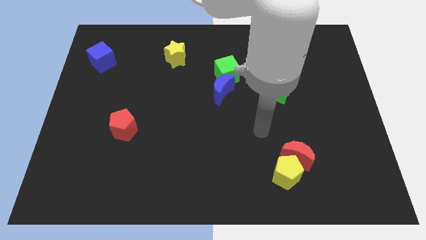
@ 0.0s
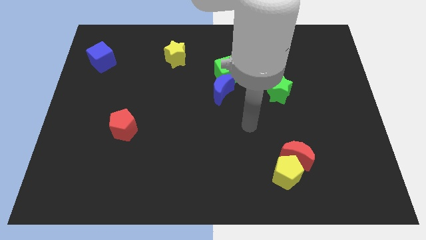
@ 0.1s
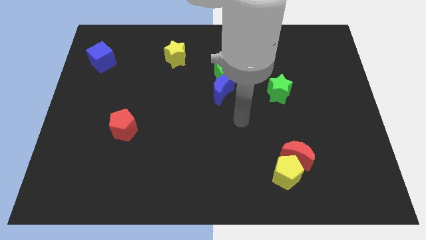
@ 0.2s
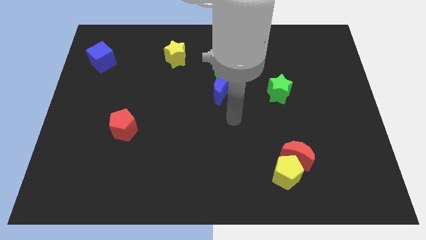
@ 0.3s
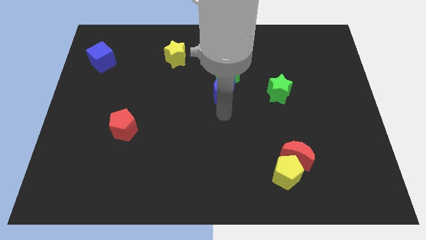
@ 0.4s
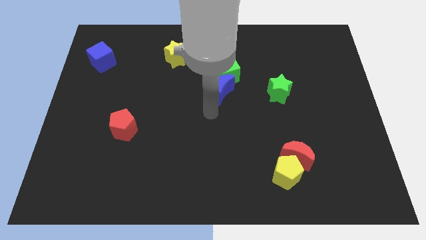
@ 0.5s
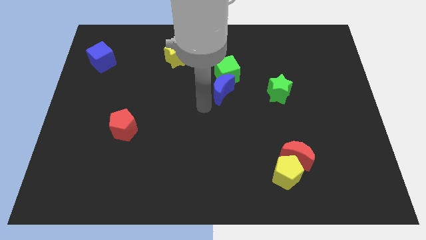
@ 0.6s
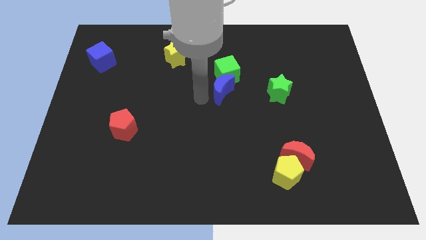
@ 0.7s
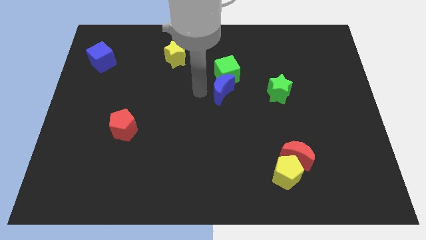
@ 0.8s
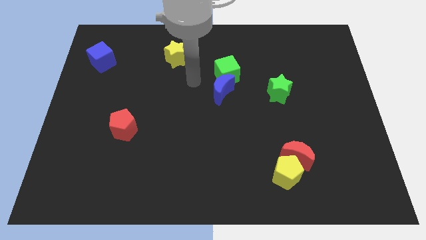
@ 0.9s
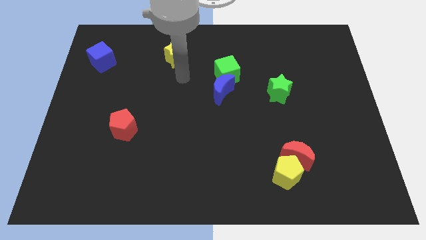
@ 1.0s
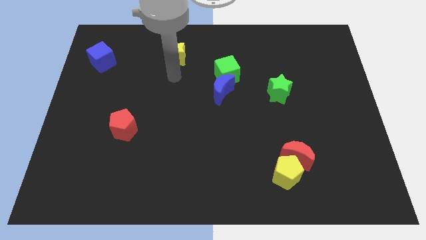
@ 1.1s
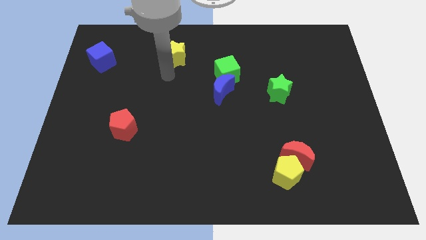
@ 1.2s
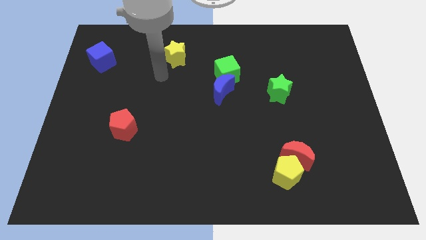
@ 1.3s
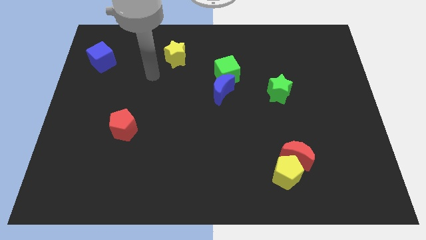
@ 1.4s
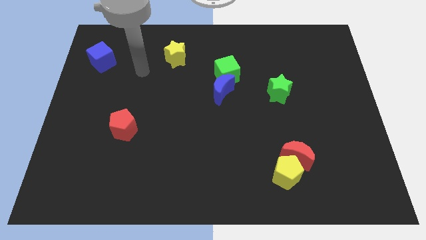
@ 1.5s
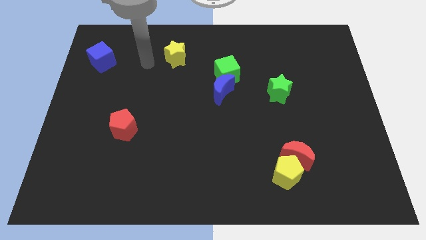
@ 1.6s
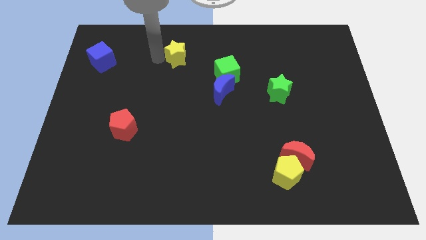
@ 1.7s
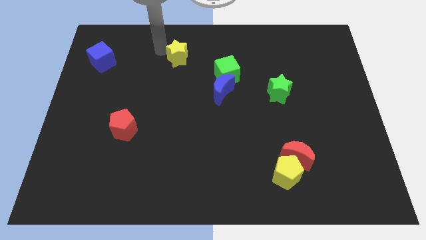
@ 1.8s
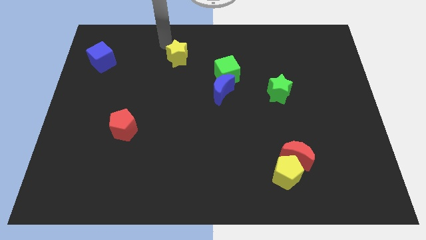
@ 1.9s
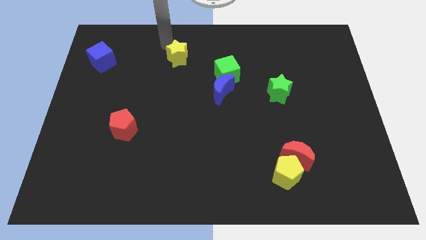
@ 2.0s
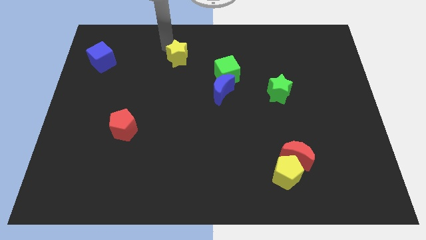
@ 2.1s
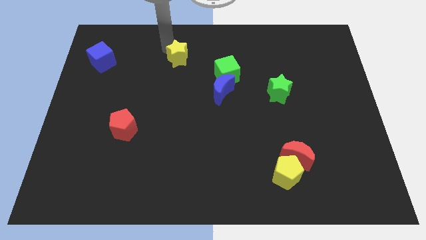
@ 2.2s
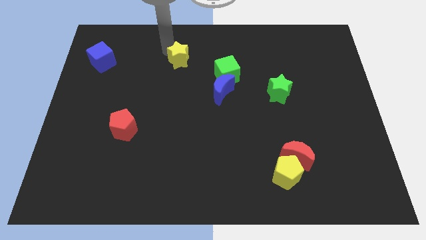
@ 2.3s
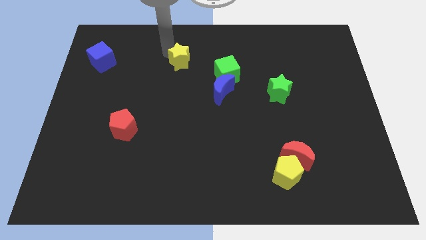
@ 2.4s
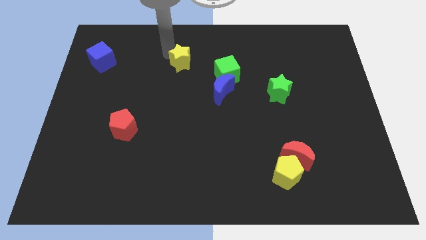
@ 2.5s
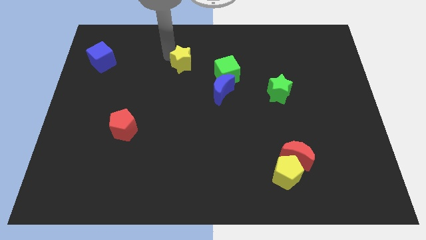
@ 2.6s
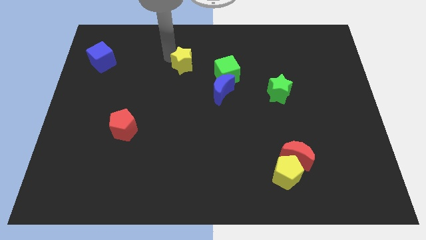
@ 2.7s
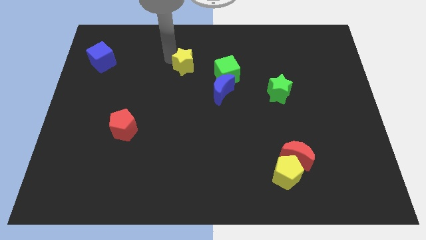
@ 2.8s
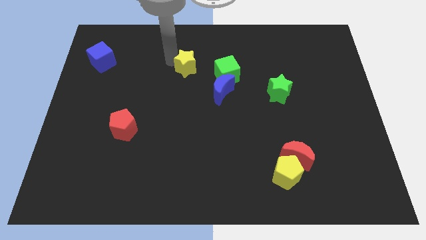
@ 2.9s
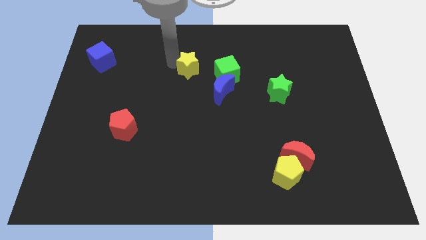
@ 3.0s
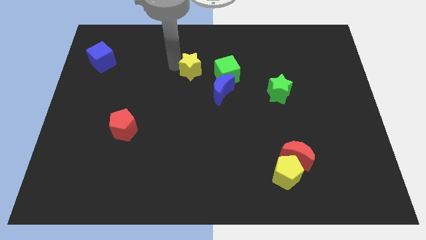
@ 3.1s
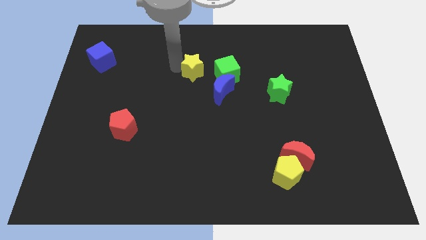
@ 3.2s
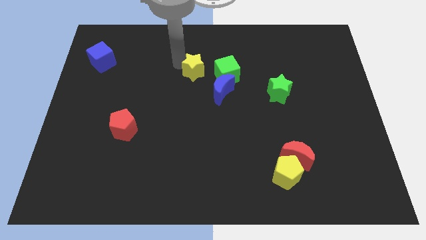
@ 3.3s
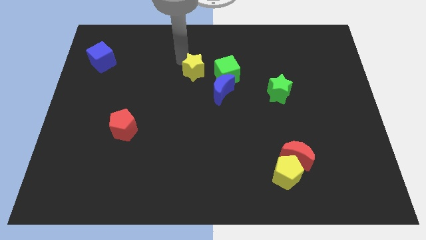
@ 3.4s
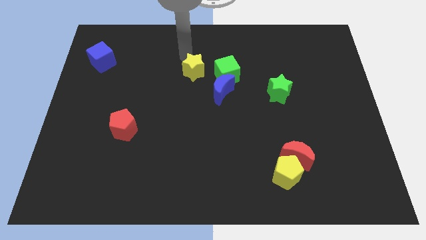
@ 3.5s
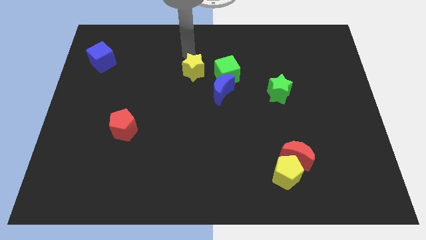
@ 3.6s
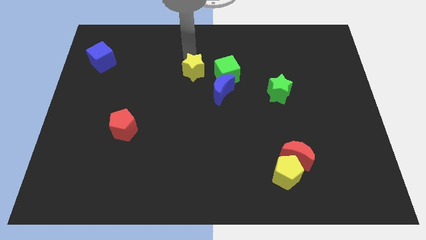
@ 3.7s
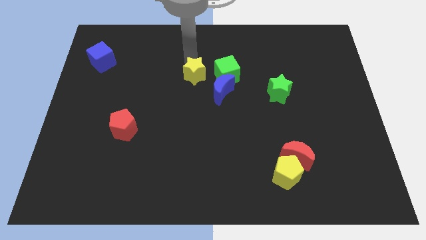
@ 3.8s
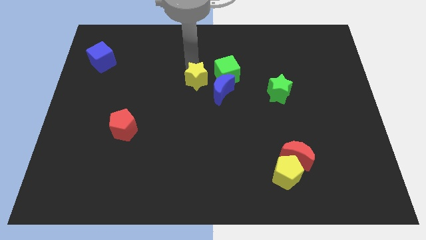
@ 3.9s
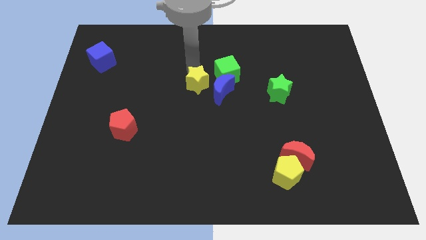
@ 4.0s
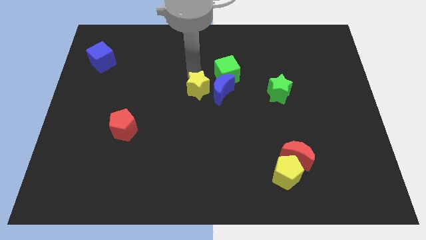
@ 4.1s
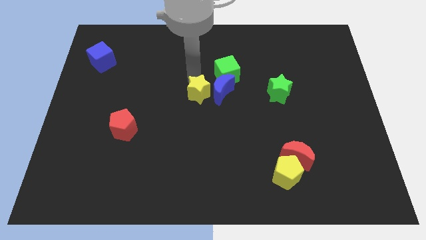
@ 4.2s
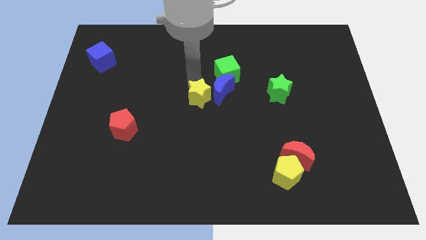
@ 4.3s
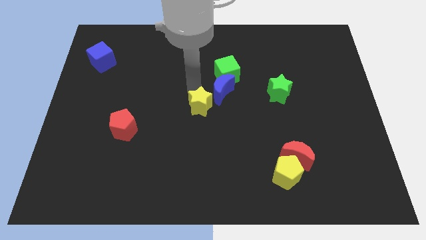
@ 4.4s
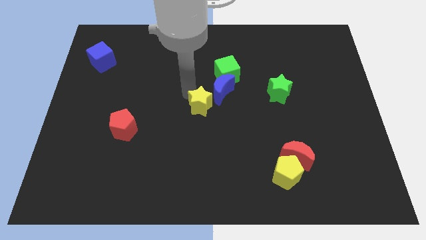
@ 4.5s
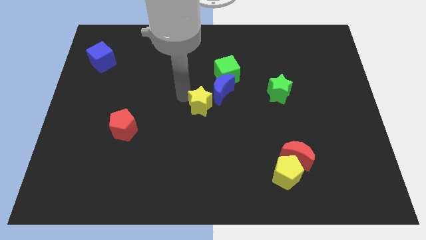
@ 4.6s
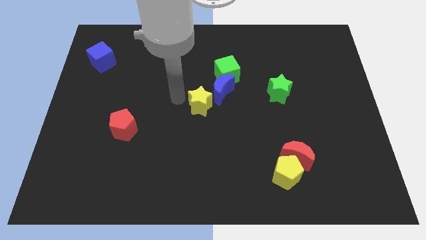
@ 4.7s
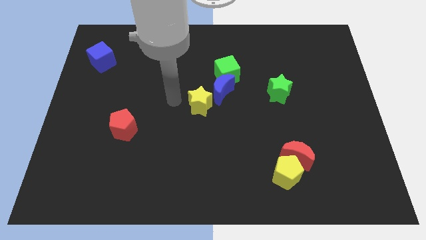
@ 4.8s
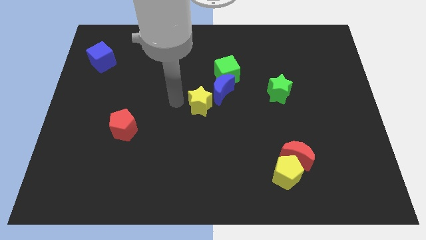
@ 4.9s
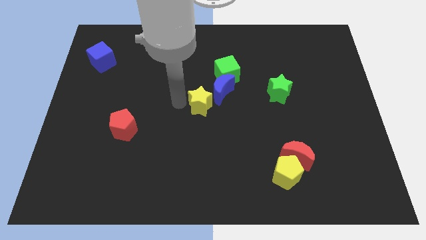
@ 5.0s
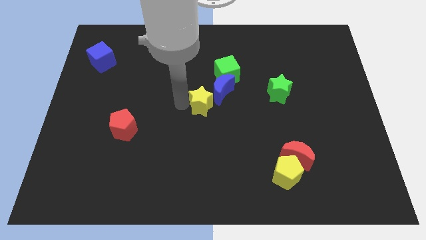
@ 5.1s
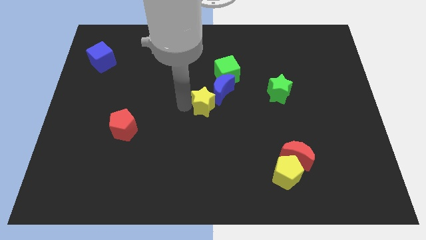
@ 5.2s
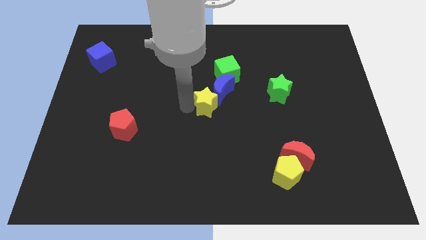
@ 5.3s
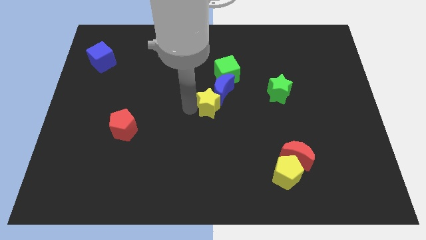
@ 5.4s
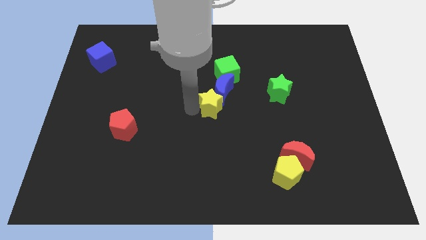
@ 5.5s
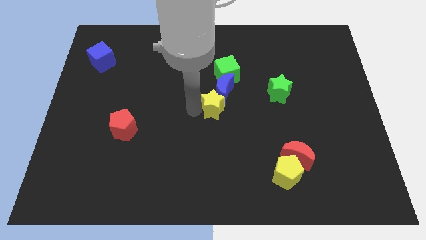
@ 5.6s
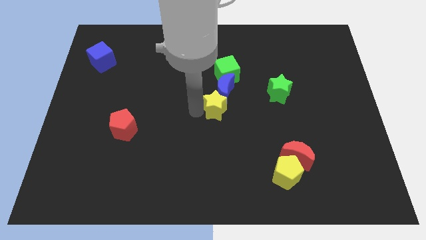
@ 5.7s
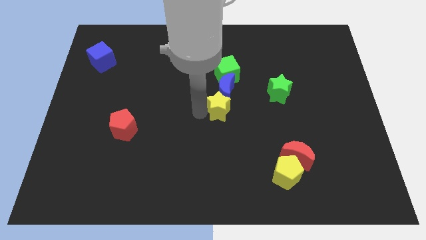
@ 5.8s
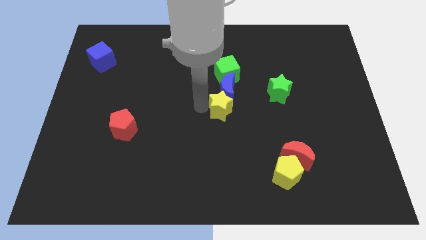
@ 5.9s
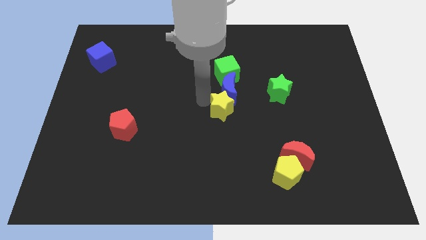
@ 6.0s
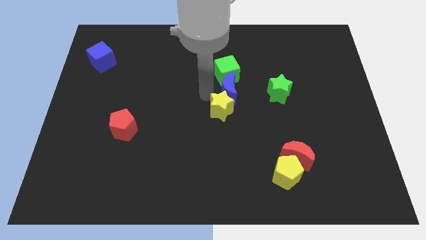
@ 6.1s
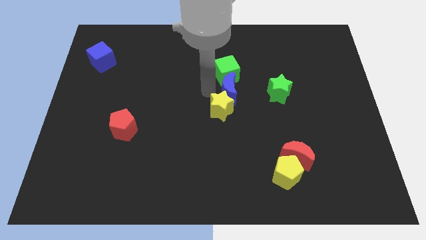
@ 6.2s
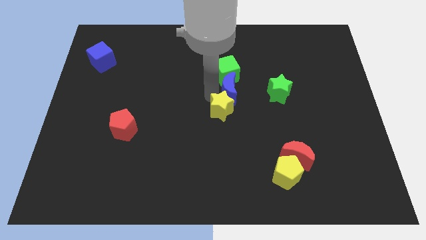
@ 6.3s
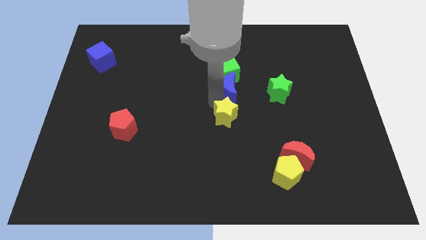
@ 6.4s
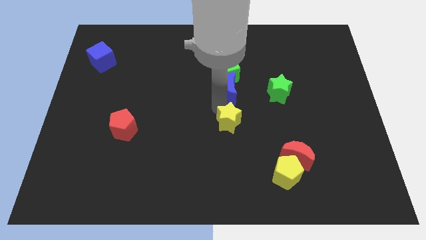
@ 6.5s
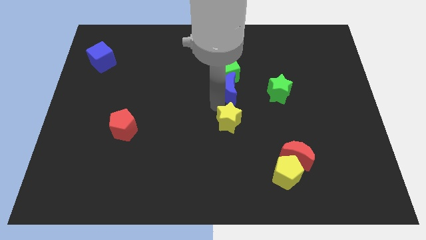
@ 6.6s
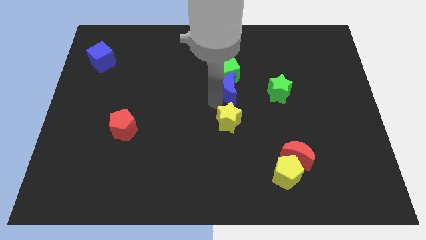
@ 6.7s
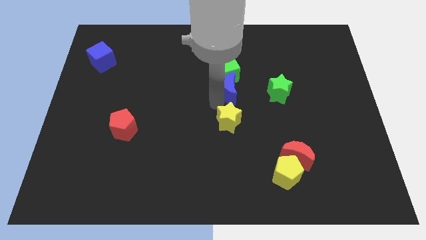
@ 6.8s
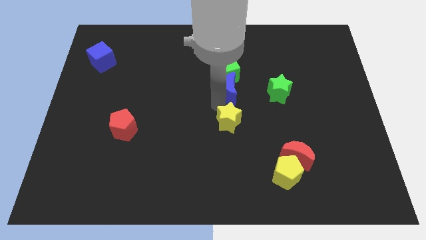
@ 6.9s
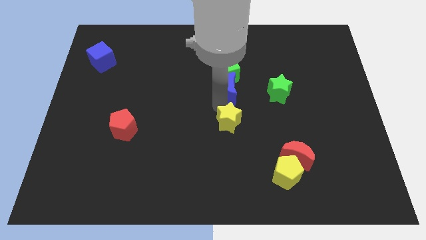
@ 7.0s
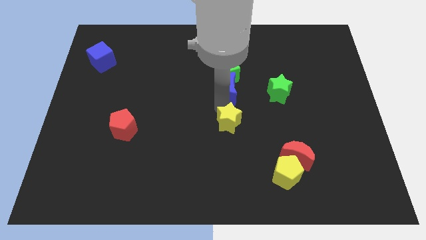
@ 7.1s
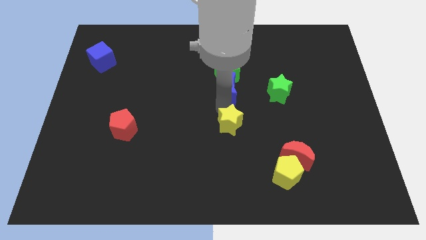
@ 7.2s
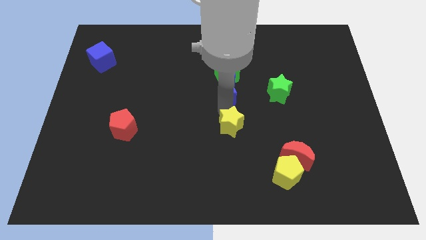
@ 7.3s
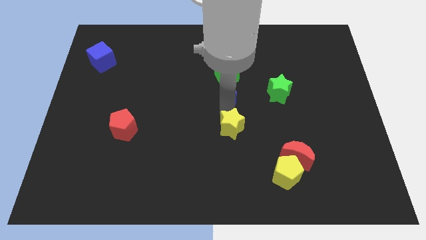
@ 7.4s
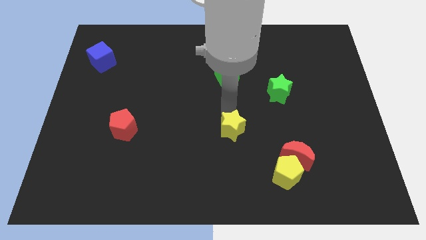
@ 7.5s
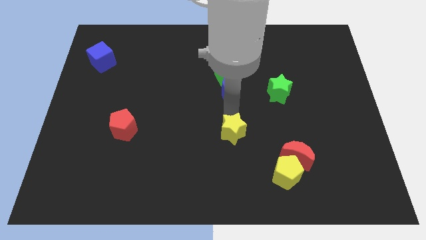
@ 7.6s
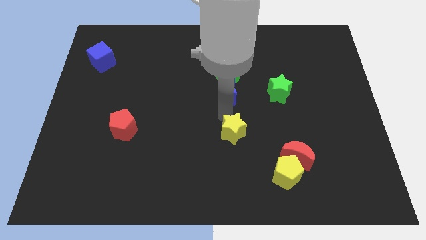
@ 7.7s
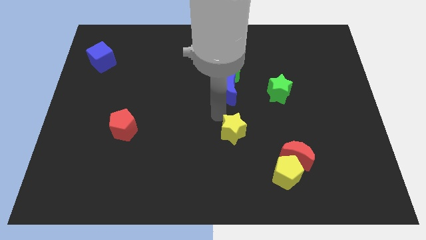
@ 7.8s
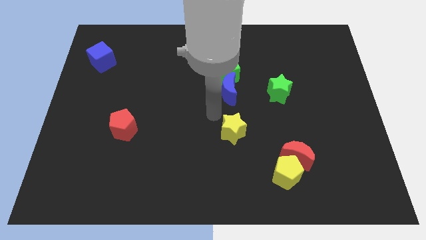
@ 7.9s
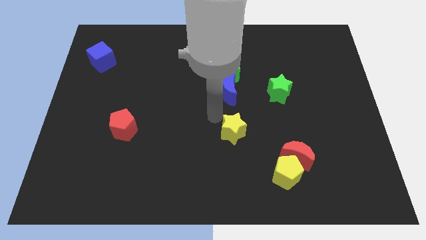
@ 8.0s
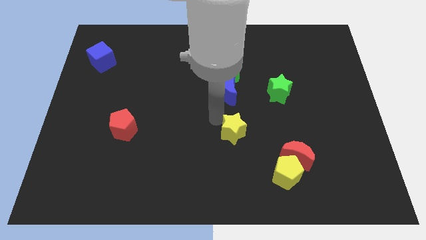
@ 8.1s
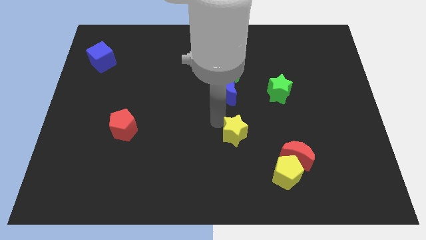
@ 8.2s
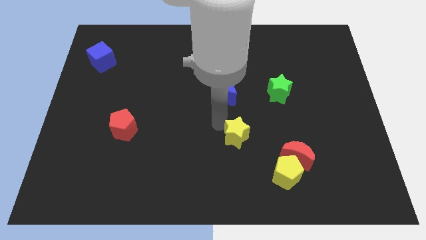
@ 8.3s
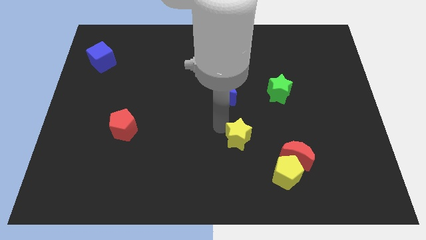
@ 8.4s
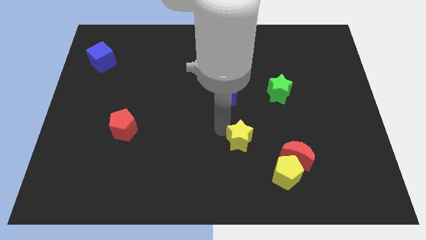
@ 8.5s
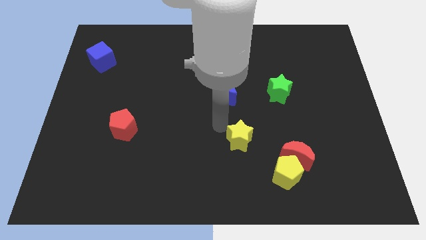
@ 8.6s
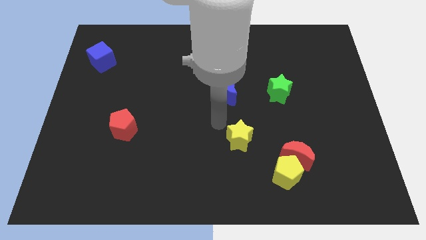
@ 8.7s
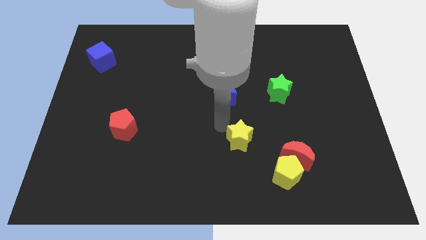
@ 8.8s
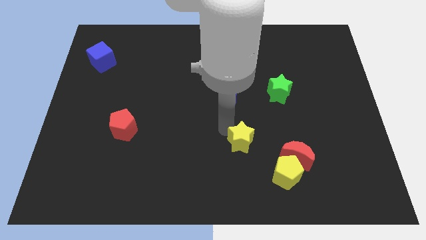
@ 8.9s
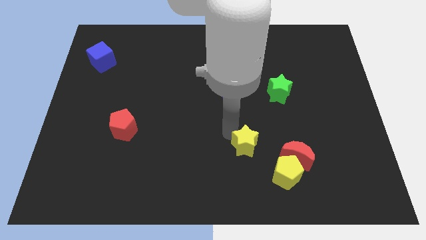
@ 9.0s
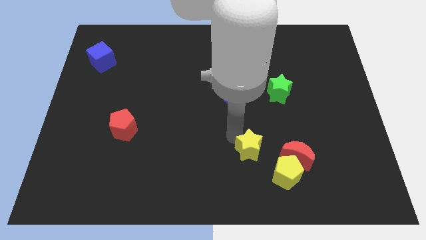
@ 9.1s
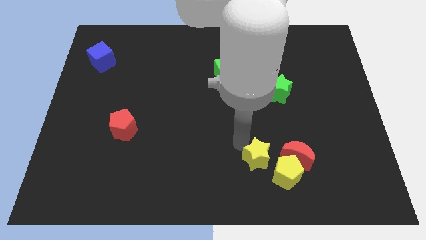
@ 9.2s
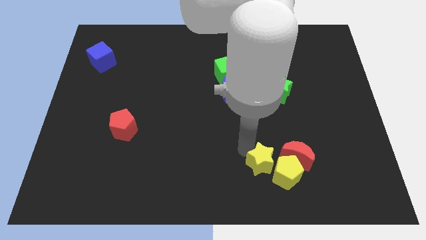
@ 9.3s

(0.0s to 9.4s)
slide the yellow star close to the yellow pentagon
